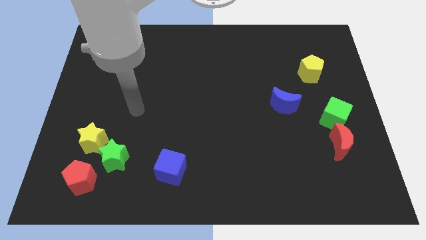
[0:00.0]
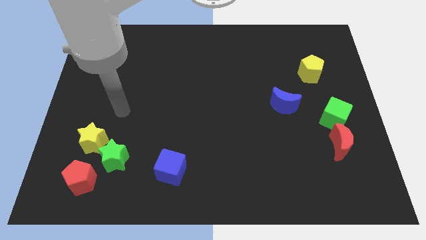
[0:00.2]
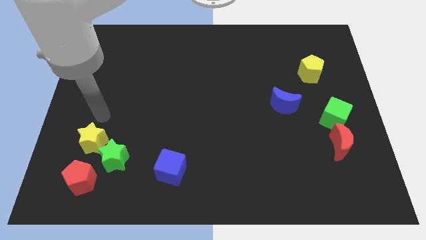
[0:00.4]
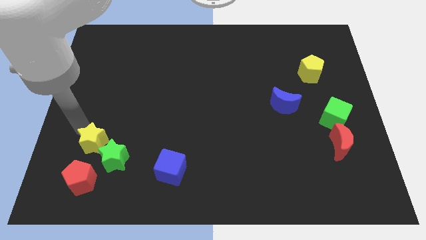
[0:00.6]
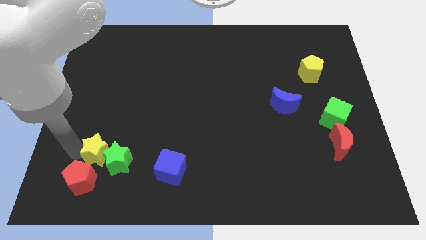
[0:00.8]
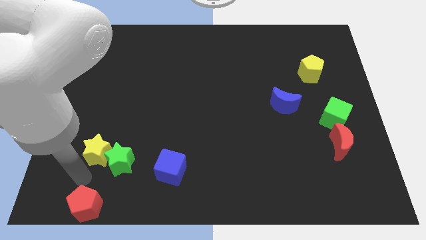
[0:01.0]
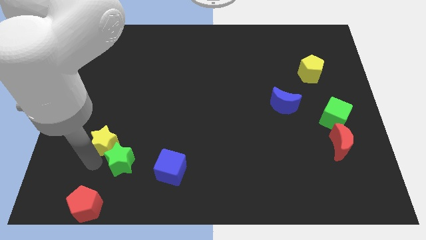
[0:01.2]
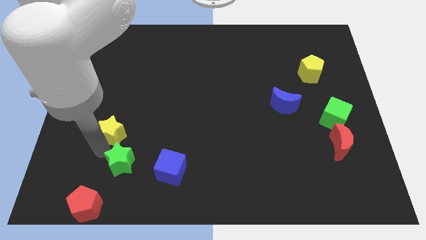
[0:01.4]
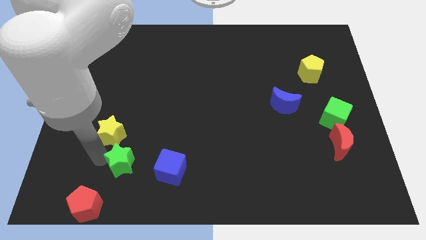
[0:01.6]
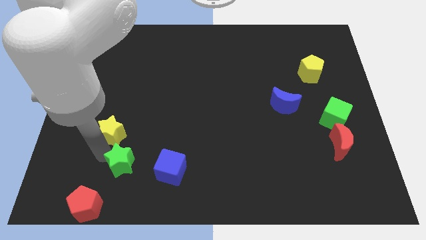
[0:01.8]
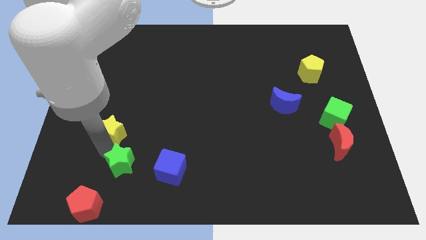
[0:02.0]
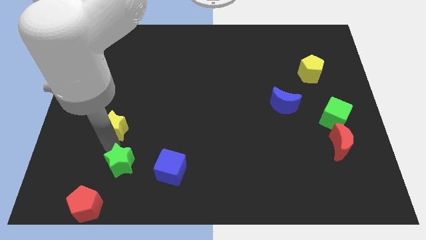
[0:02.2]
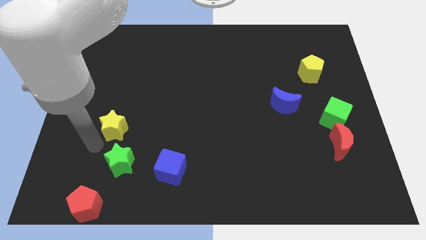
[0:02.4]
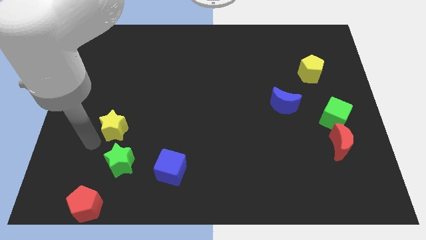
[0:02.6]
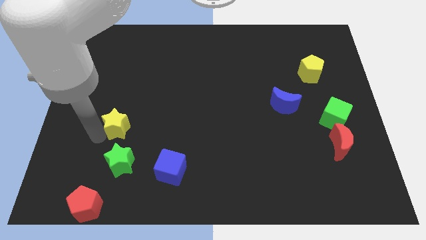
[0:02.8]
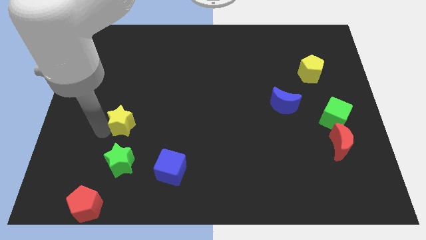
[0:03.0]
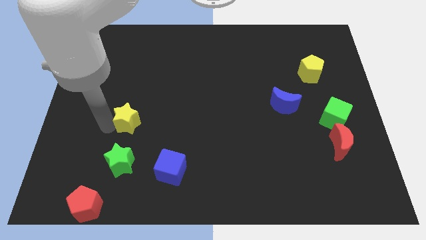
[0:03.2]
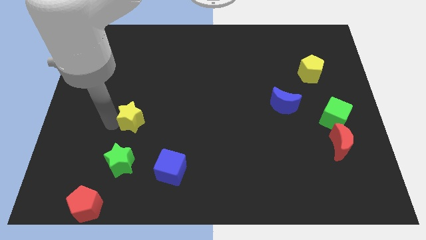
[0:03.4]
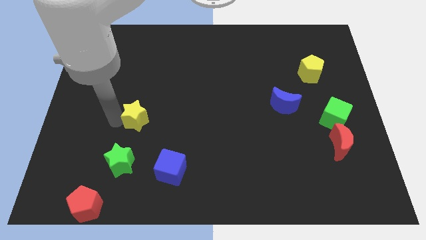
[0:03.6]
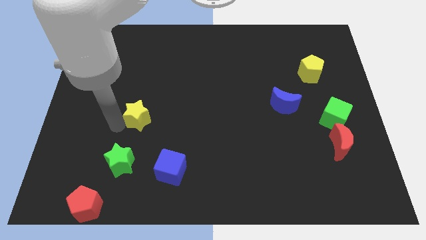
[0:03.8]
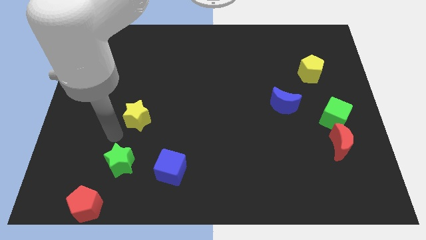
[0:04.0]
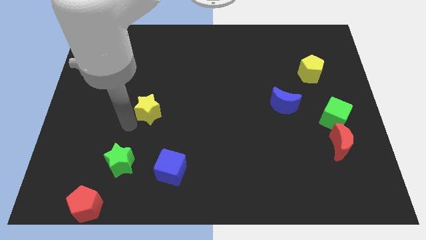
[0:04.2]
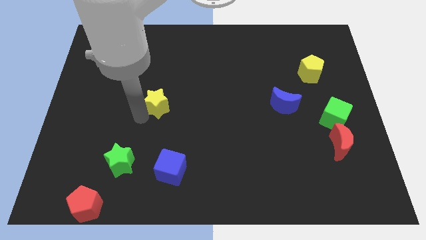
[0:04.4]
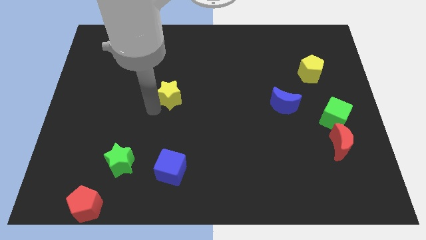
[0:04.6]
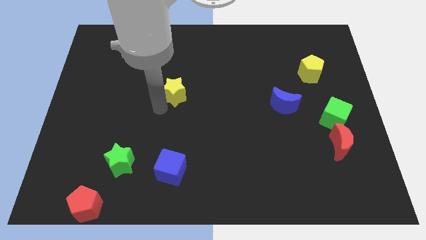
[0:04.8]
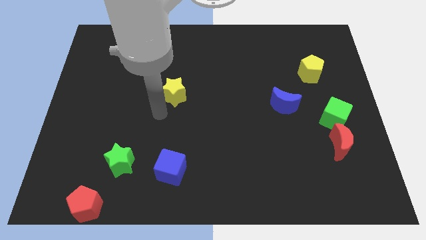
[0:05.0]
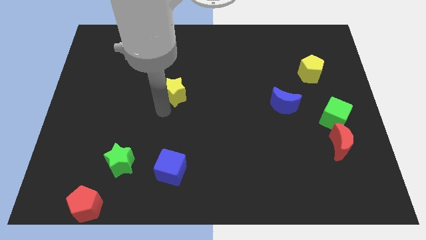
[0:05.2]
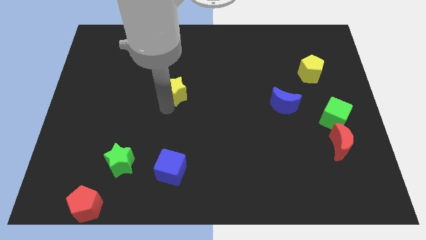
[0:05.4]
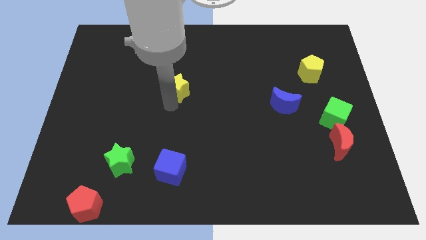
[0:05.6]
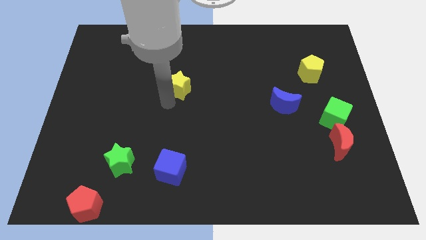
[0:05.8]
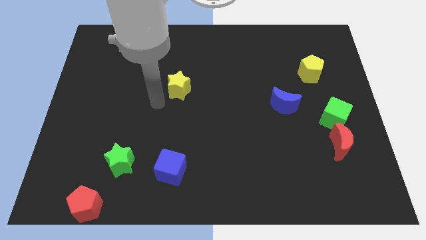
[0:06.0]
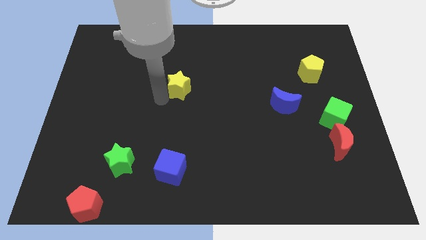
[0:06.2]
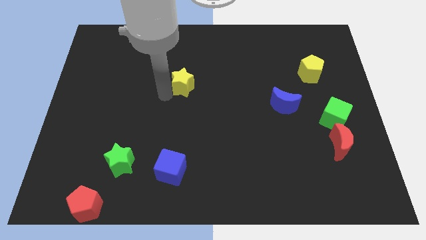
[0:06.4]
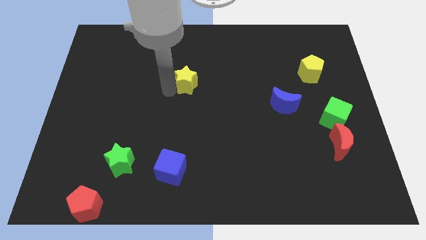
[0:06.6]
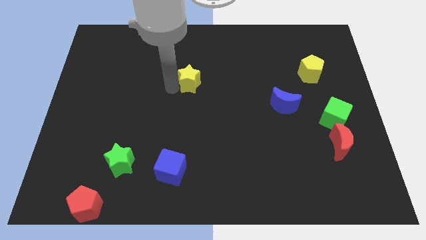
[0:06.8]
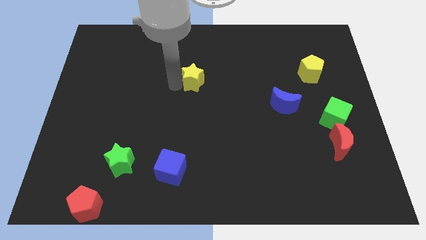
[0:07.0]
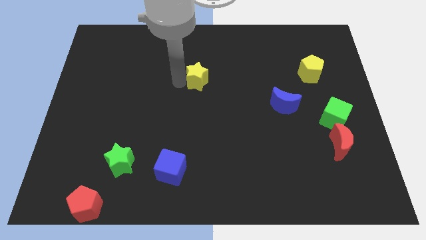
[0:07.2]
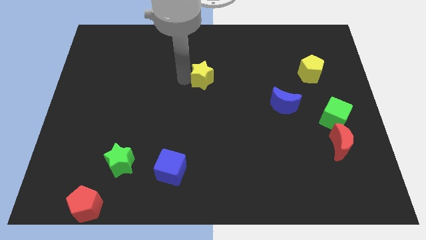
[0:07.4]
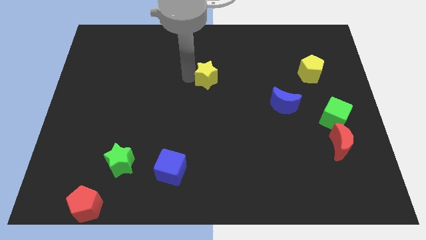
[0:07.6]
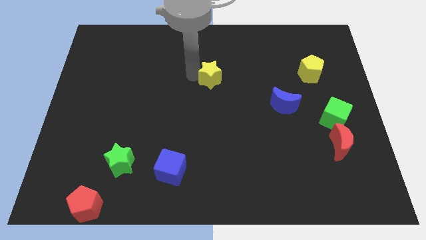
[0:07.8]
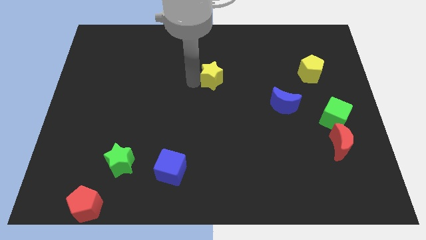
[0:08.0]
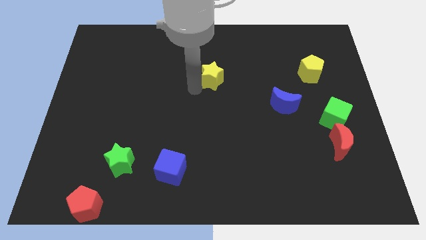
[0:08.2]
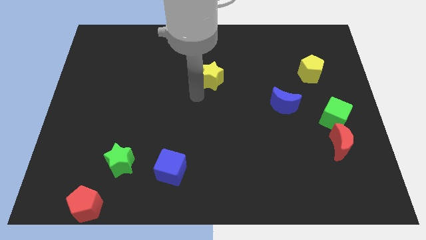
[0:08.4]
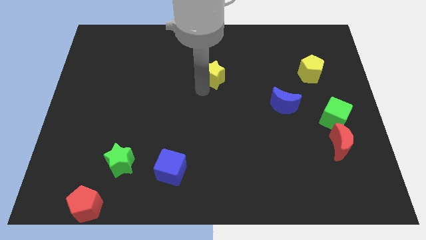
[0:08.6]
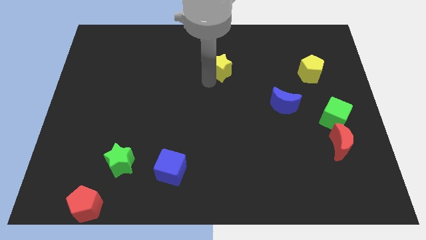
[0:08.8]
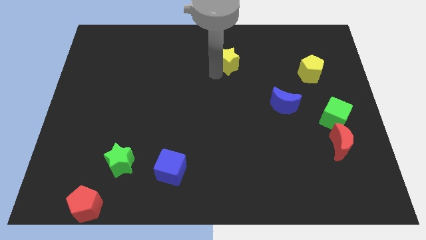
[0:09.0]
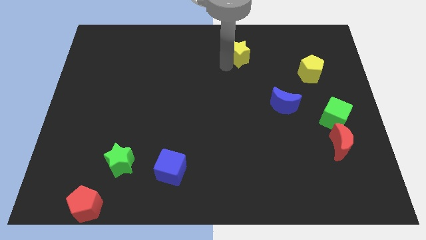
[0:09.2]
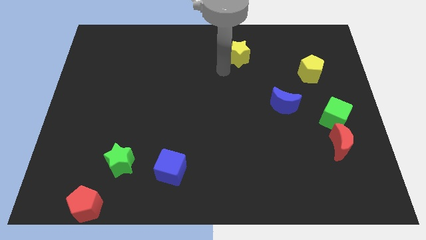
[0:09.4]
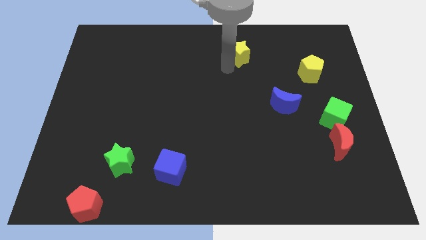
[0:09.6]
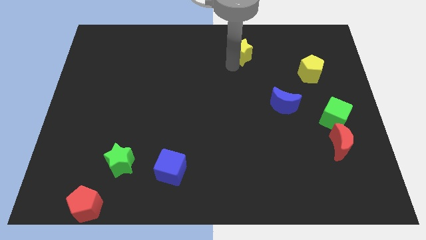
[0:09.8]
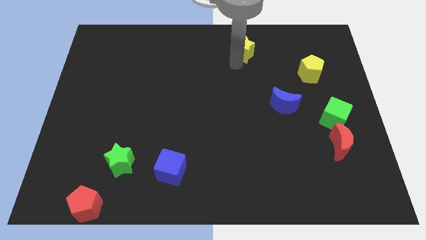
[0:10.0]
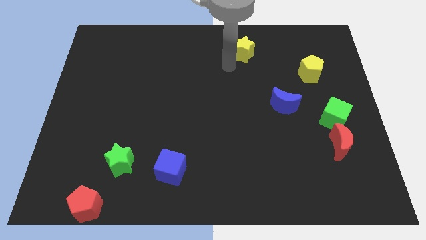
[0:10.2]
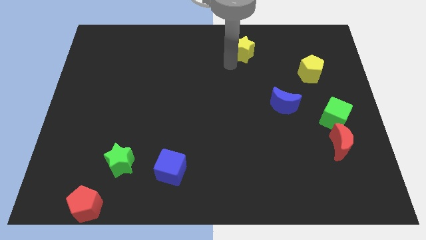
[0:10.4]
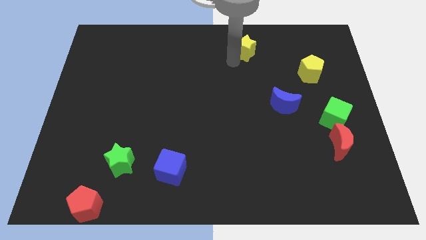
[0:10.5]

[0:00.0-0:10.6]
put the yellow star to the top
